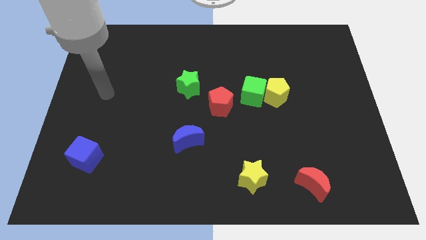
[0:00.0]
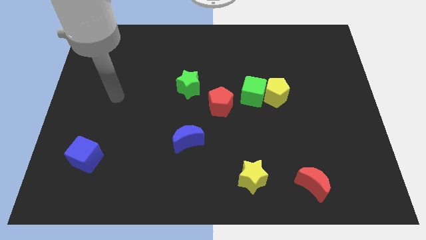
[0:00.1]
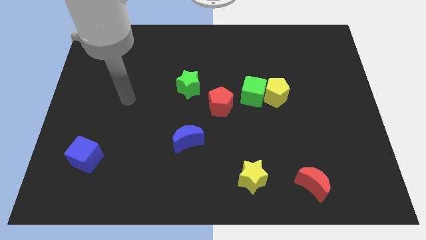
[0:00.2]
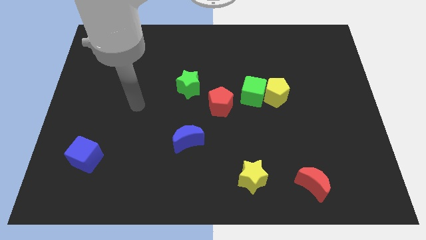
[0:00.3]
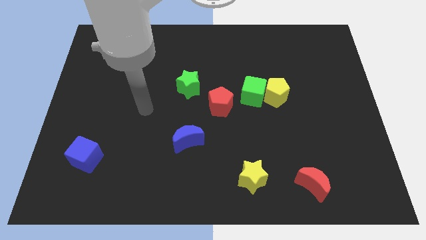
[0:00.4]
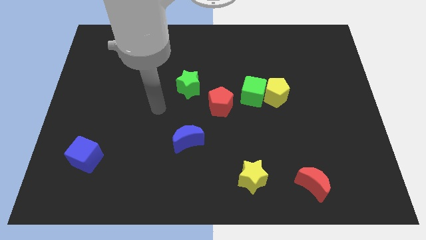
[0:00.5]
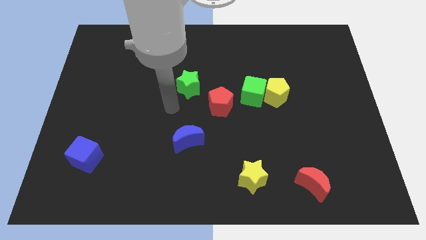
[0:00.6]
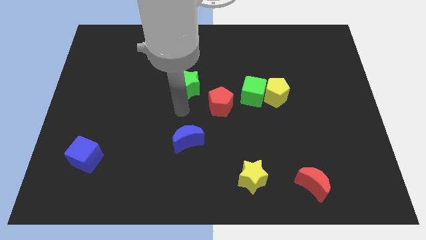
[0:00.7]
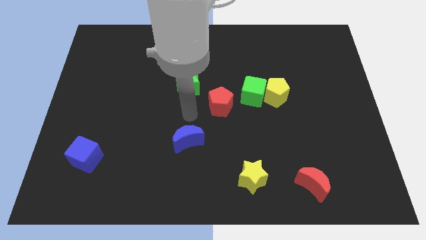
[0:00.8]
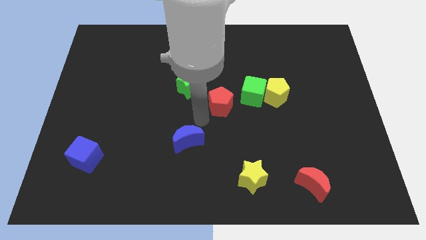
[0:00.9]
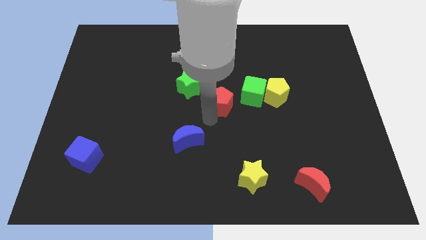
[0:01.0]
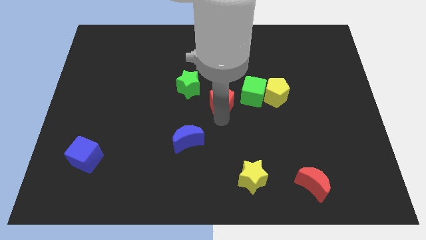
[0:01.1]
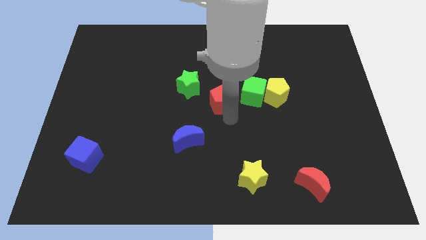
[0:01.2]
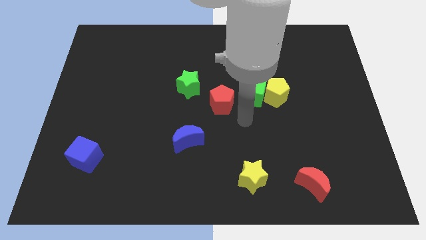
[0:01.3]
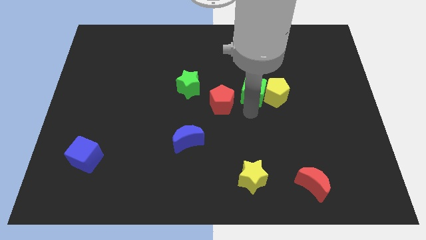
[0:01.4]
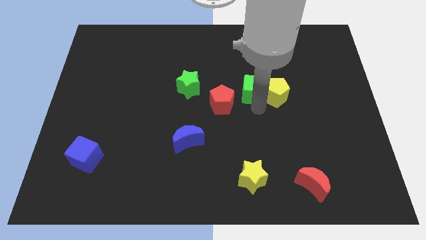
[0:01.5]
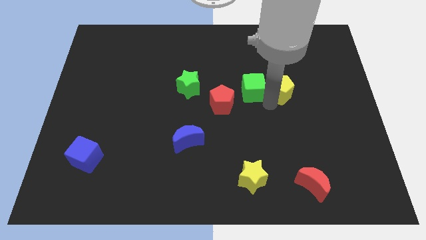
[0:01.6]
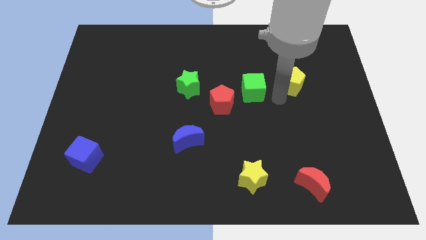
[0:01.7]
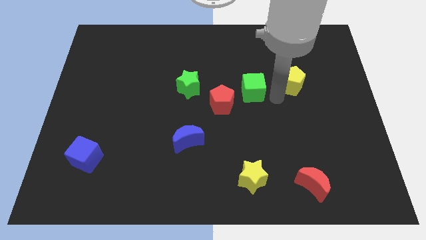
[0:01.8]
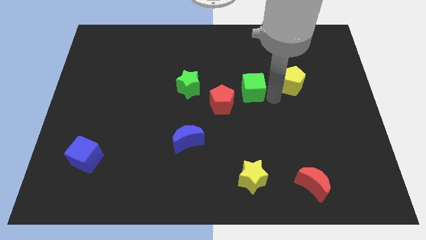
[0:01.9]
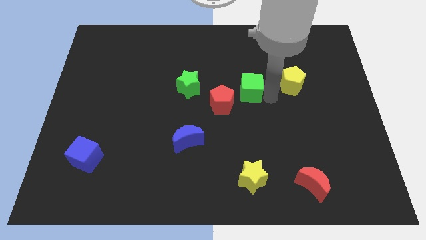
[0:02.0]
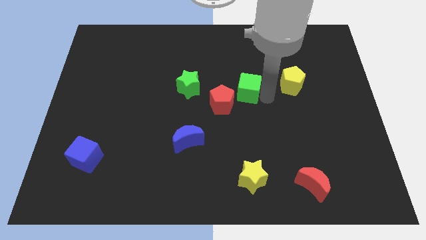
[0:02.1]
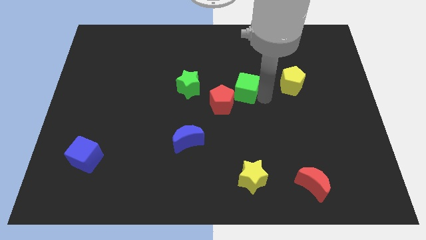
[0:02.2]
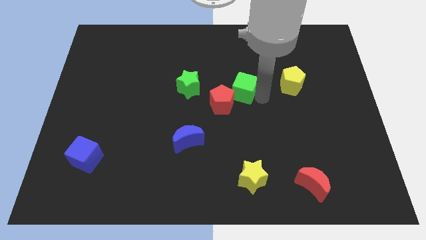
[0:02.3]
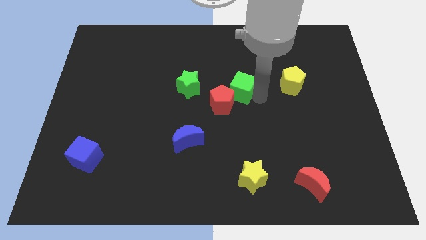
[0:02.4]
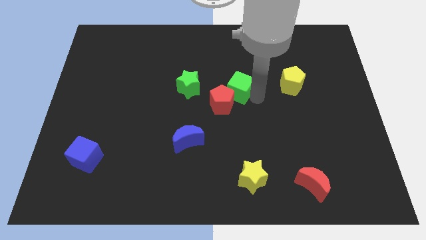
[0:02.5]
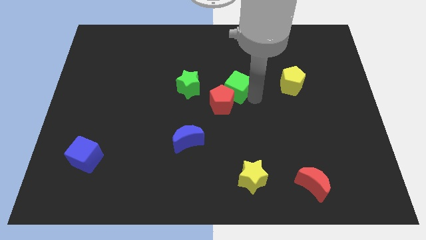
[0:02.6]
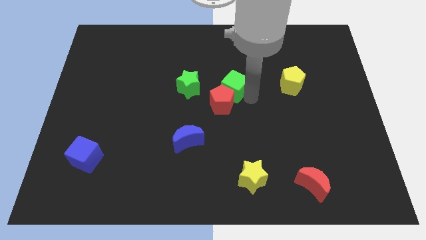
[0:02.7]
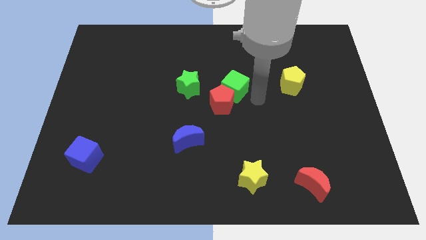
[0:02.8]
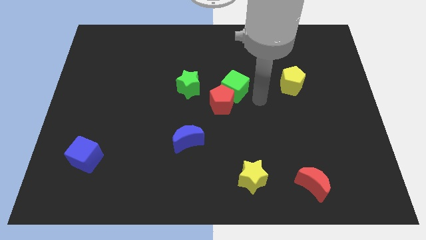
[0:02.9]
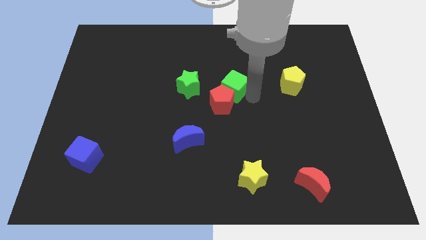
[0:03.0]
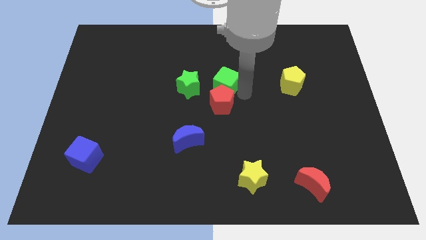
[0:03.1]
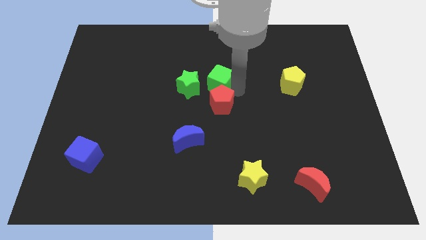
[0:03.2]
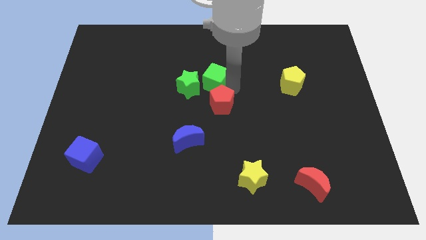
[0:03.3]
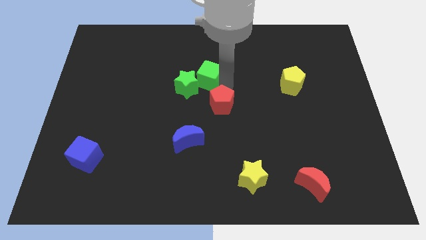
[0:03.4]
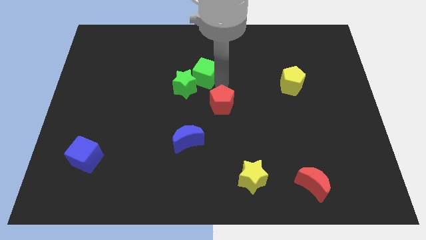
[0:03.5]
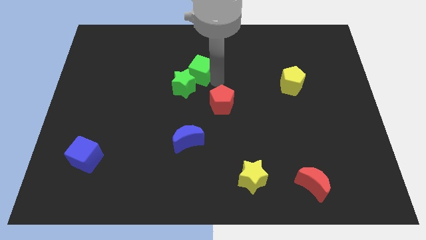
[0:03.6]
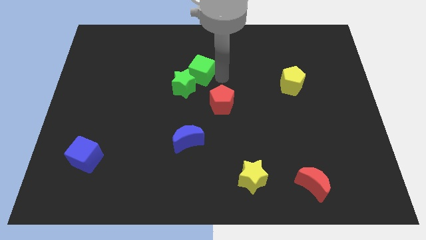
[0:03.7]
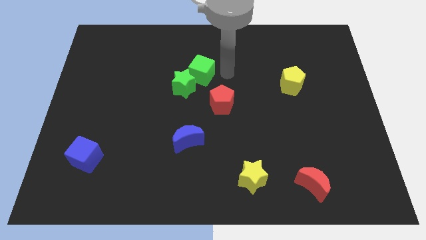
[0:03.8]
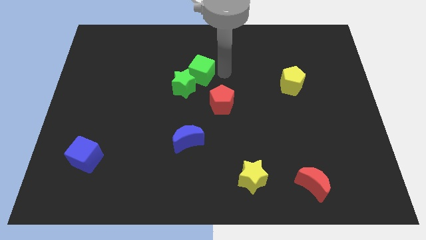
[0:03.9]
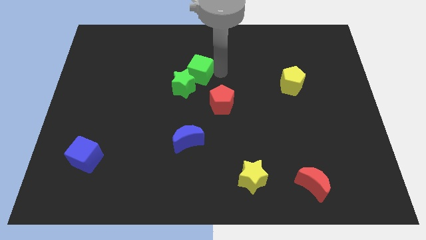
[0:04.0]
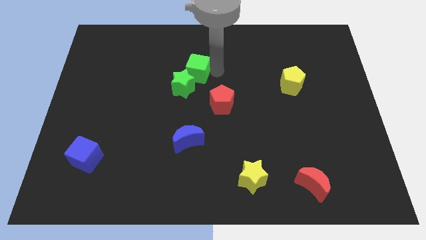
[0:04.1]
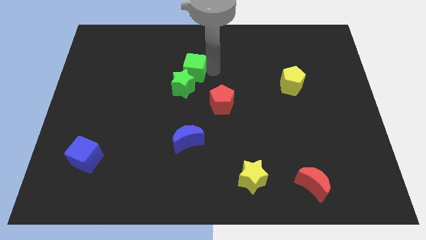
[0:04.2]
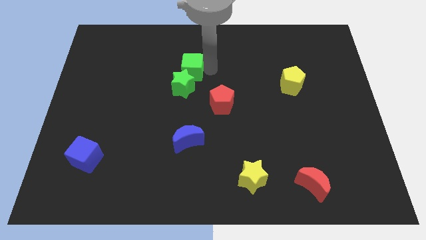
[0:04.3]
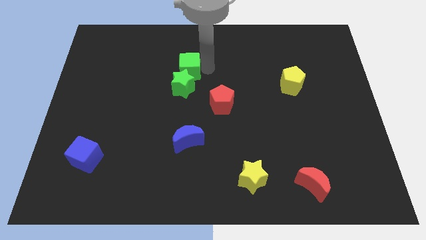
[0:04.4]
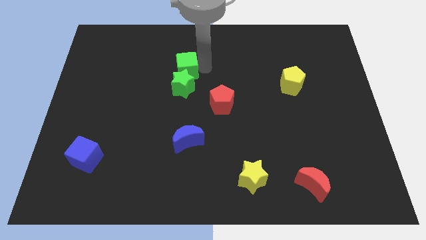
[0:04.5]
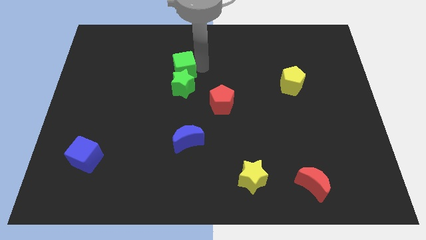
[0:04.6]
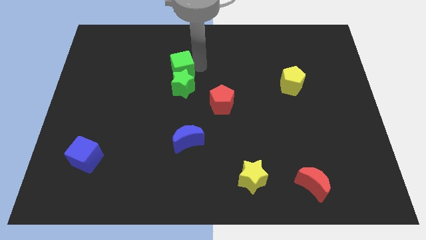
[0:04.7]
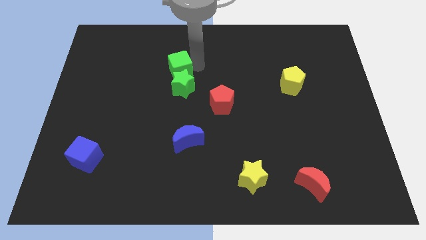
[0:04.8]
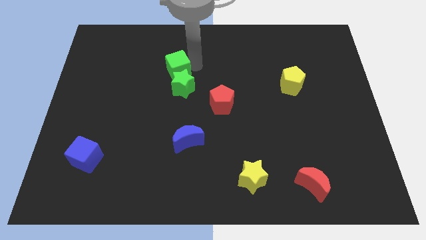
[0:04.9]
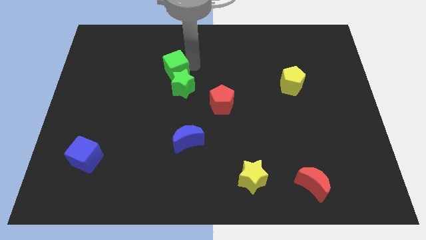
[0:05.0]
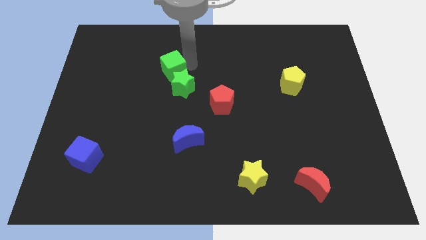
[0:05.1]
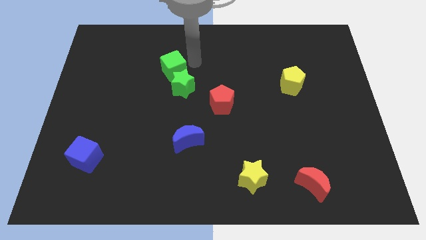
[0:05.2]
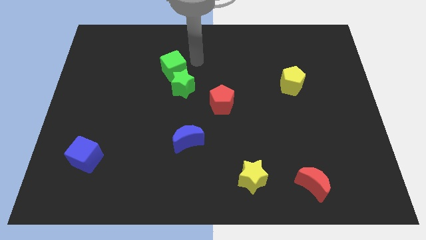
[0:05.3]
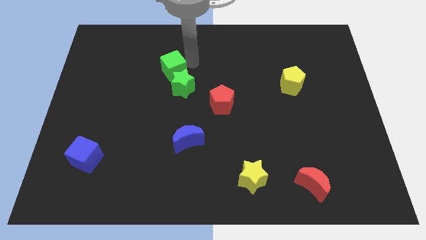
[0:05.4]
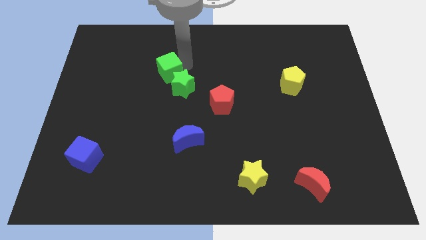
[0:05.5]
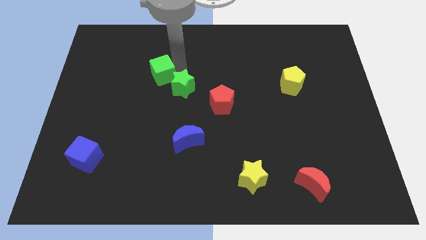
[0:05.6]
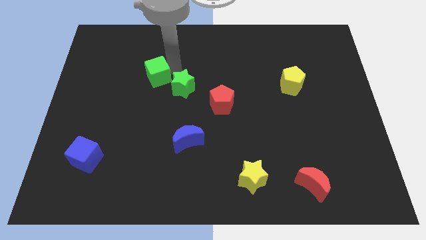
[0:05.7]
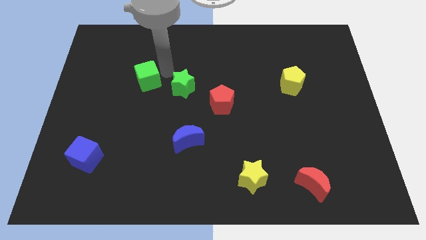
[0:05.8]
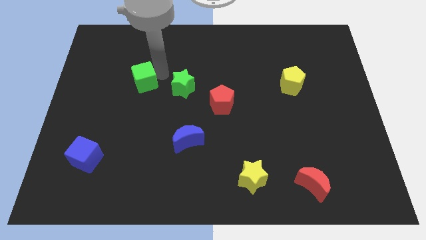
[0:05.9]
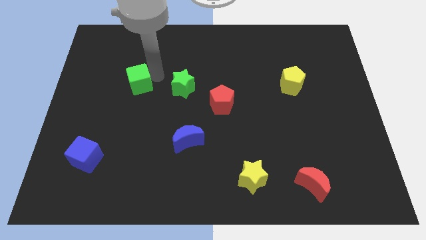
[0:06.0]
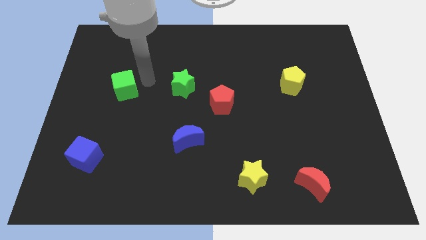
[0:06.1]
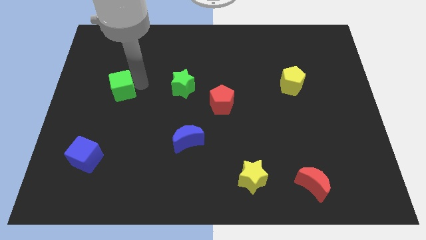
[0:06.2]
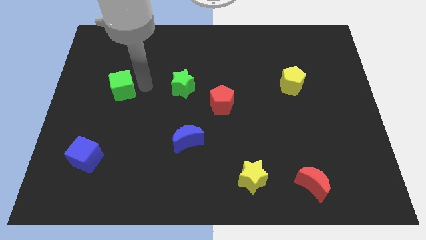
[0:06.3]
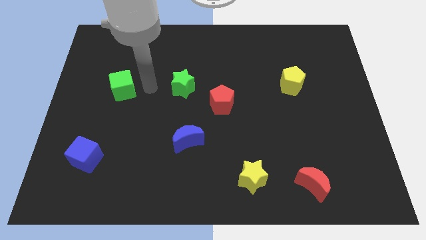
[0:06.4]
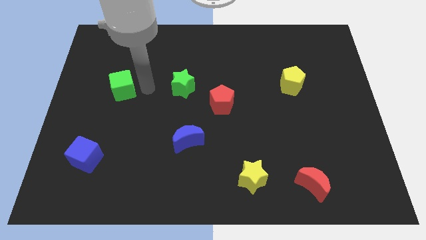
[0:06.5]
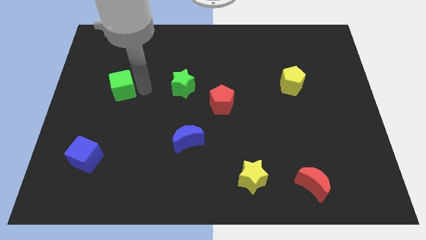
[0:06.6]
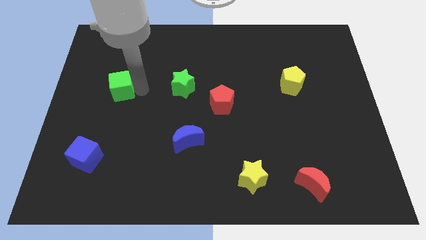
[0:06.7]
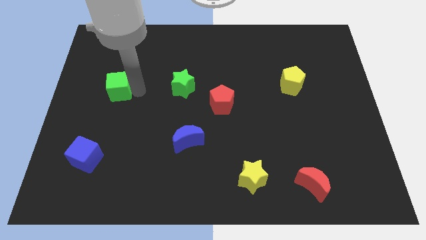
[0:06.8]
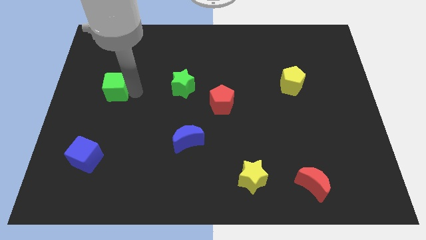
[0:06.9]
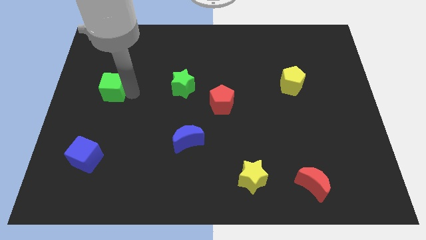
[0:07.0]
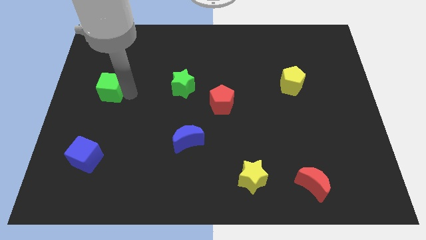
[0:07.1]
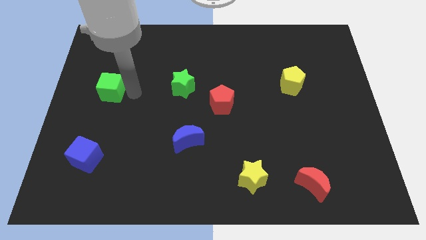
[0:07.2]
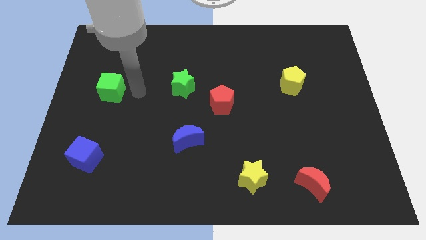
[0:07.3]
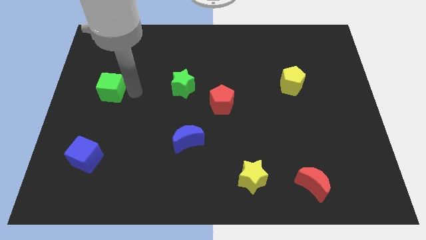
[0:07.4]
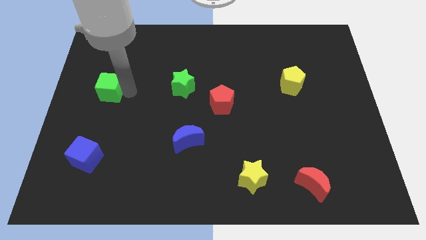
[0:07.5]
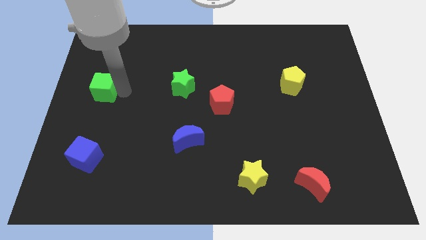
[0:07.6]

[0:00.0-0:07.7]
move the green cube to the left side
